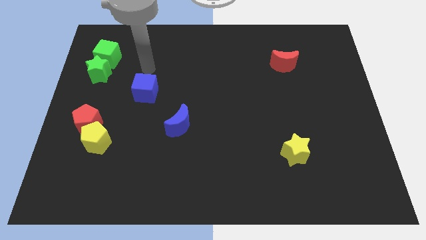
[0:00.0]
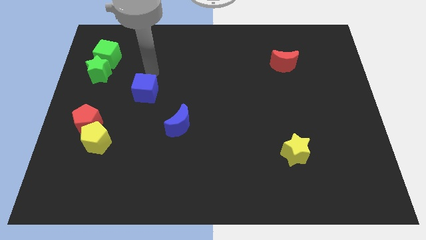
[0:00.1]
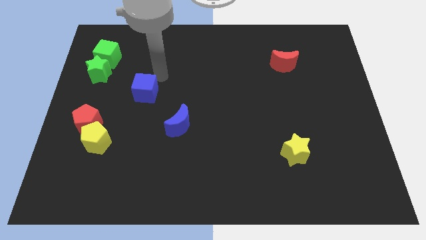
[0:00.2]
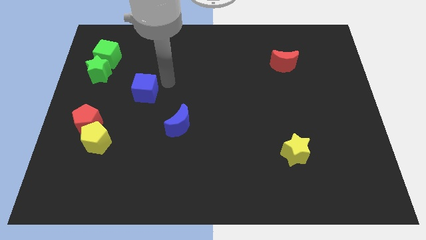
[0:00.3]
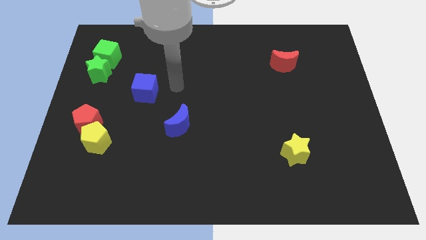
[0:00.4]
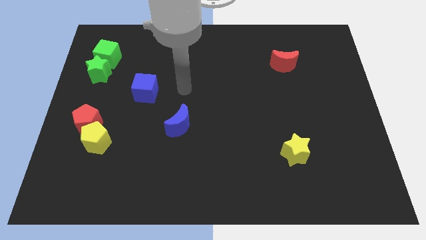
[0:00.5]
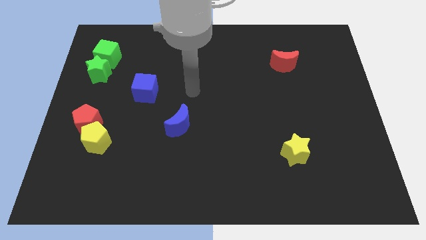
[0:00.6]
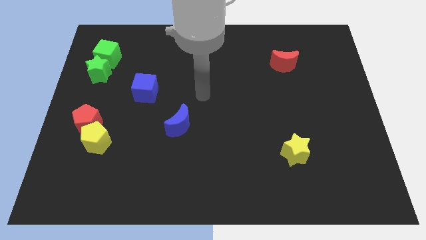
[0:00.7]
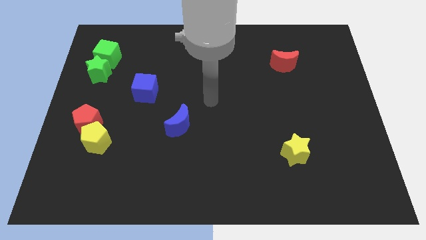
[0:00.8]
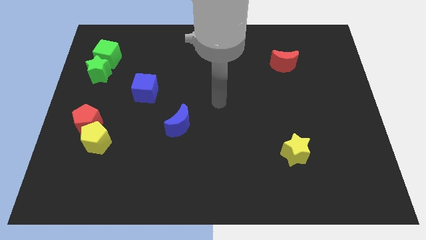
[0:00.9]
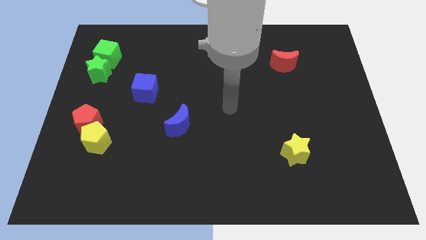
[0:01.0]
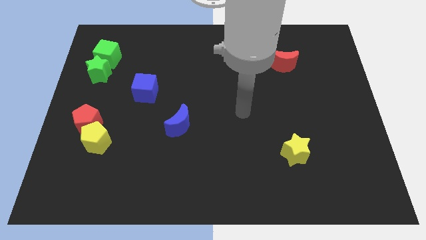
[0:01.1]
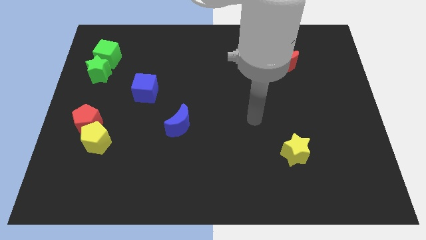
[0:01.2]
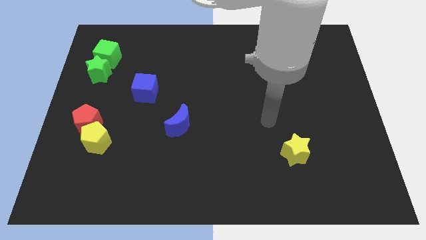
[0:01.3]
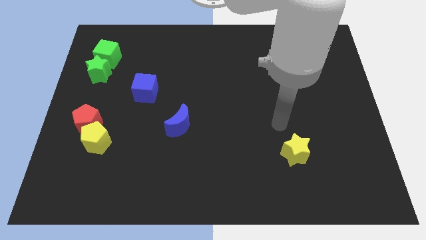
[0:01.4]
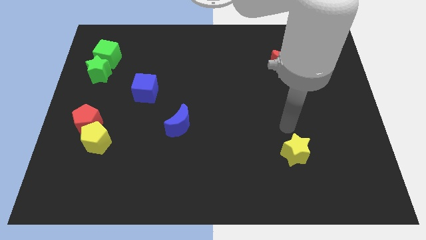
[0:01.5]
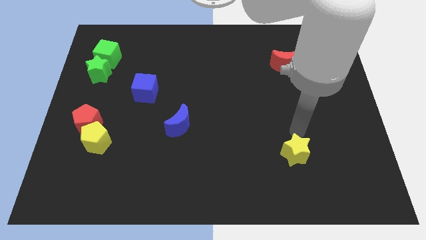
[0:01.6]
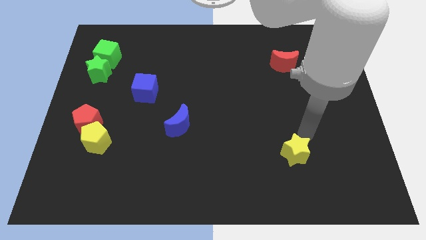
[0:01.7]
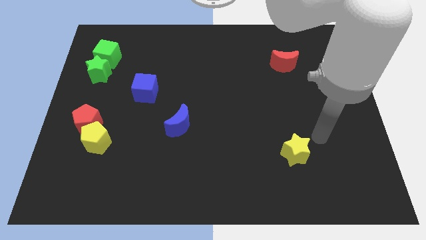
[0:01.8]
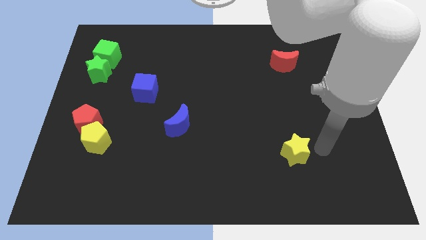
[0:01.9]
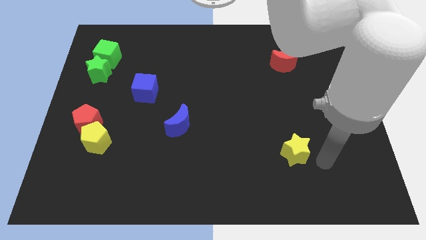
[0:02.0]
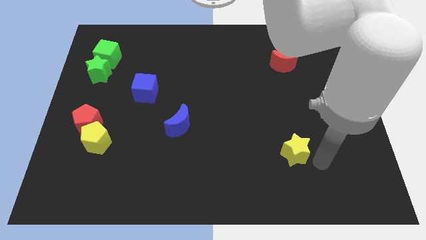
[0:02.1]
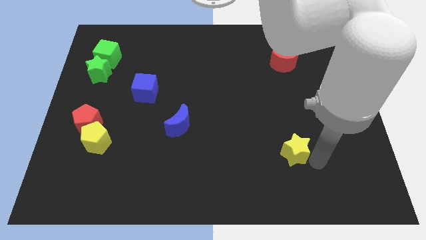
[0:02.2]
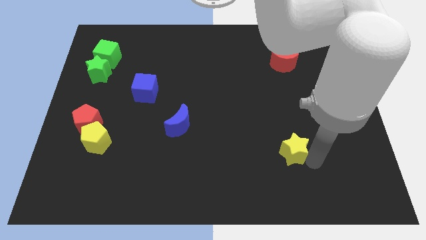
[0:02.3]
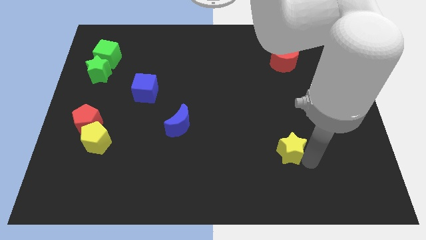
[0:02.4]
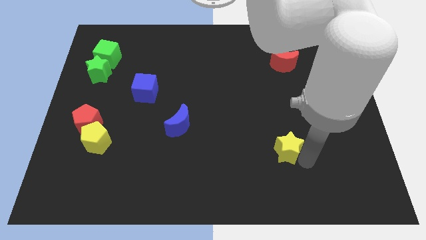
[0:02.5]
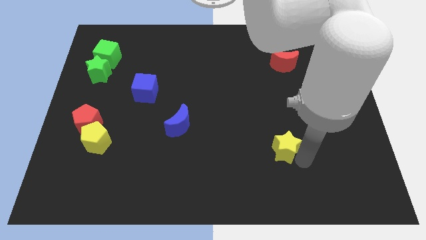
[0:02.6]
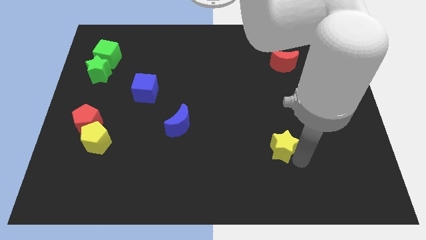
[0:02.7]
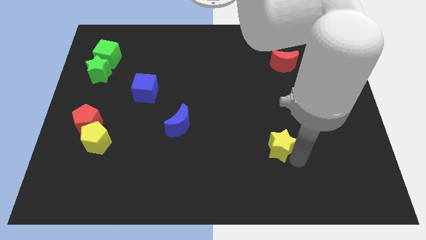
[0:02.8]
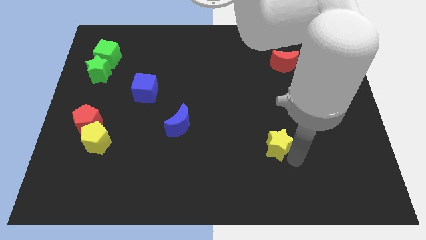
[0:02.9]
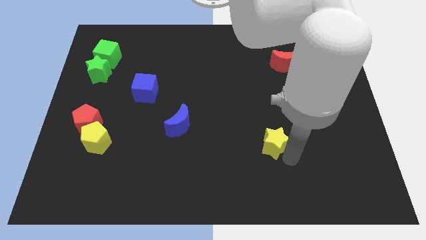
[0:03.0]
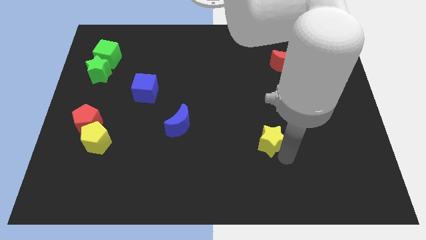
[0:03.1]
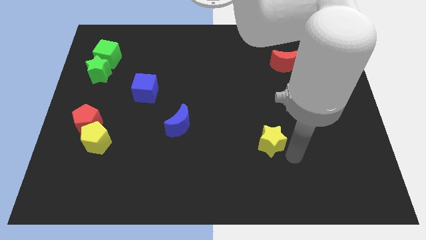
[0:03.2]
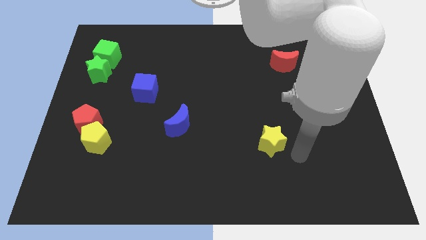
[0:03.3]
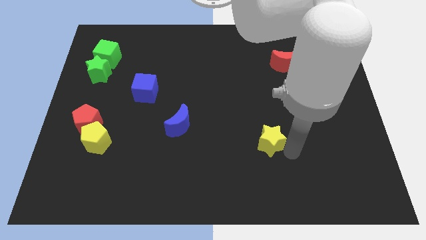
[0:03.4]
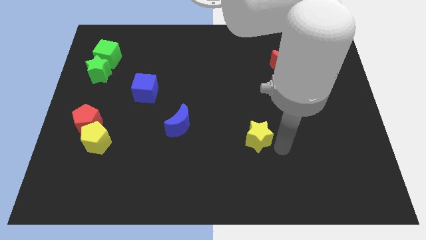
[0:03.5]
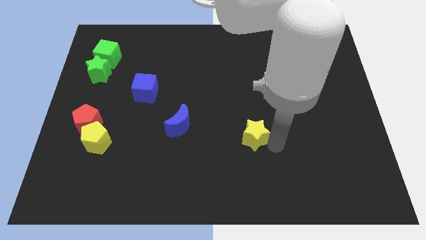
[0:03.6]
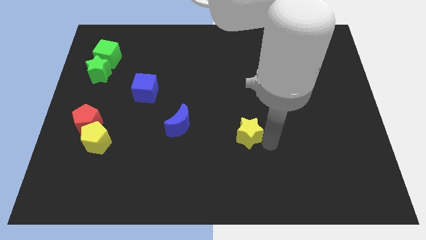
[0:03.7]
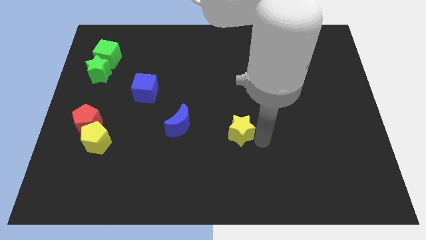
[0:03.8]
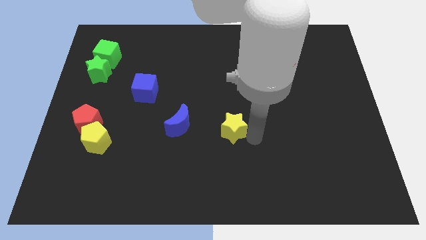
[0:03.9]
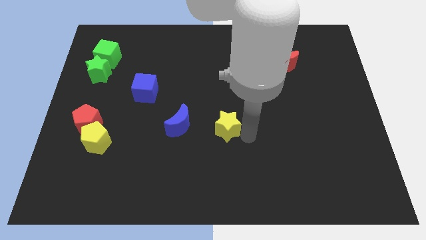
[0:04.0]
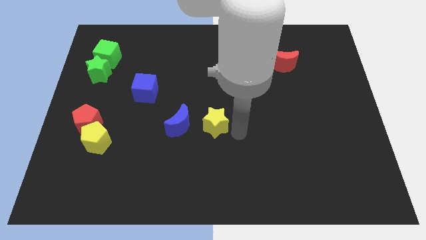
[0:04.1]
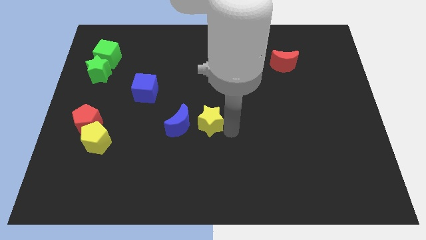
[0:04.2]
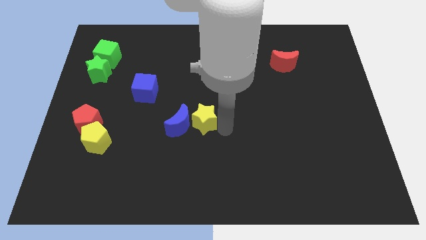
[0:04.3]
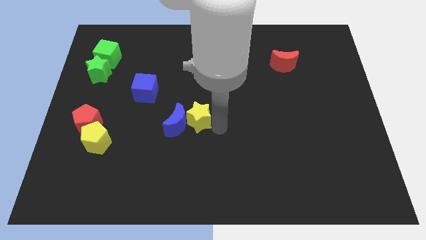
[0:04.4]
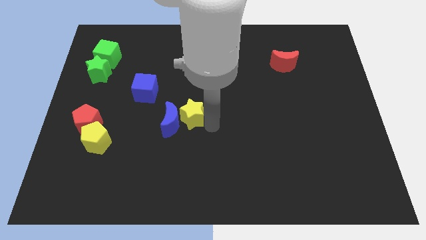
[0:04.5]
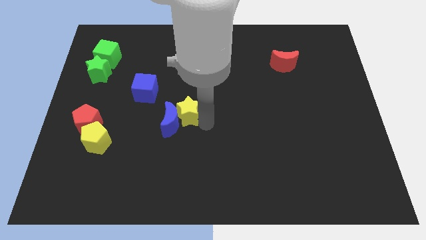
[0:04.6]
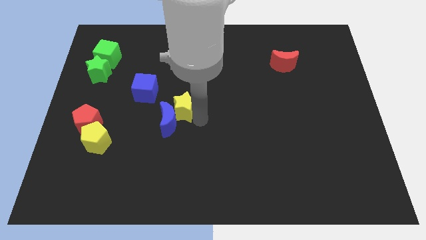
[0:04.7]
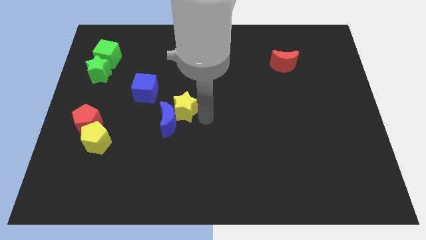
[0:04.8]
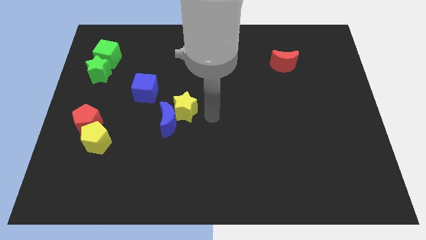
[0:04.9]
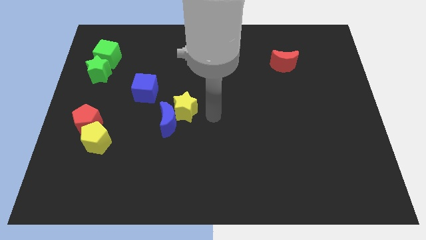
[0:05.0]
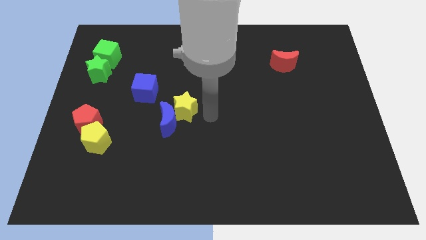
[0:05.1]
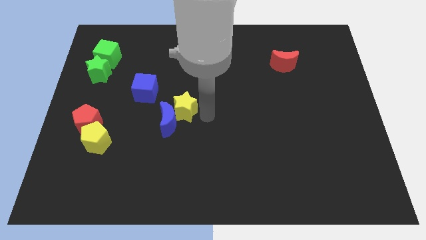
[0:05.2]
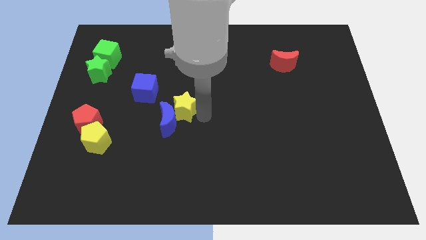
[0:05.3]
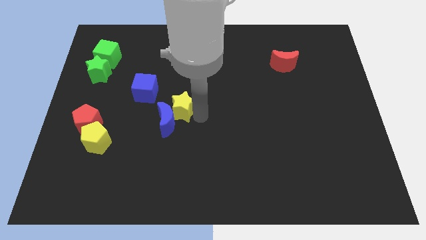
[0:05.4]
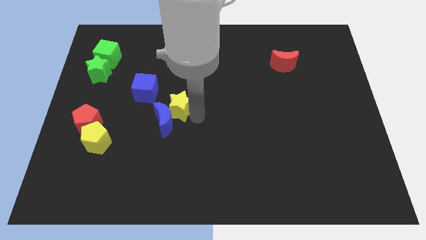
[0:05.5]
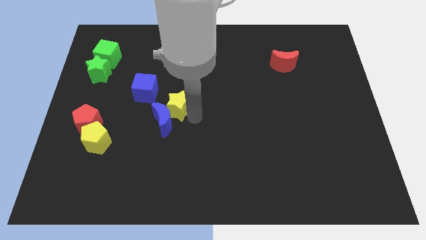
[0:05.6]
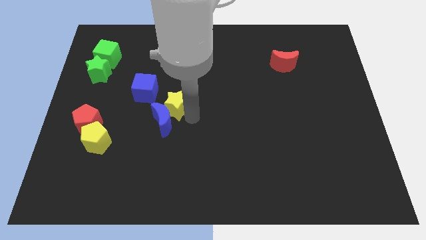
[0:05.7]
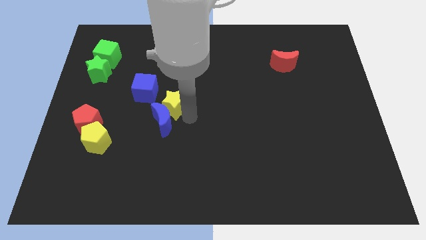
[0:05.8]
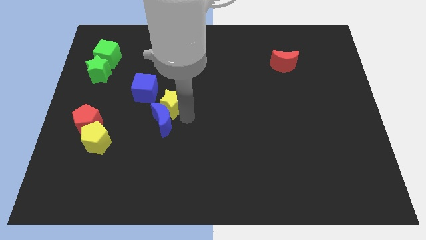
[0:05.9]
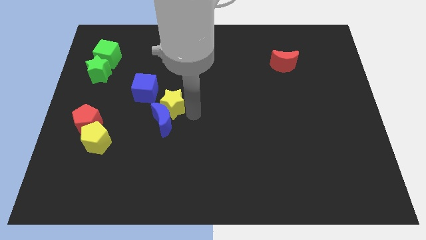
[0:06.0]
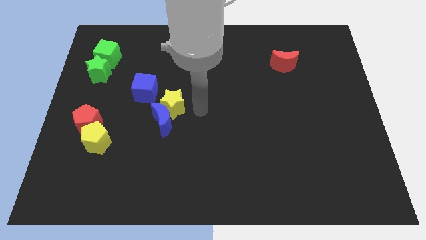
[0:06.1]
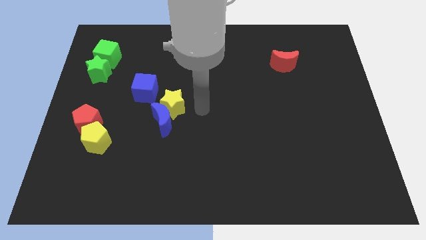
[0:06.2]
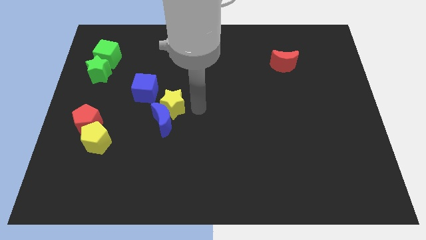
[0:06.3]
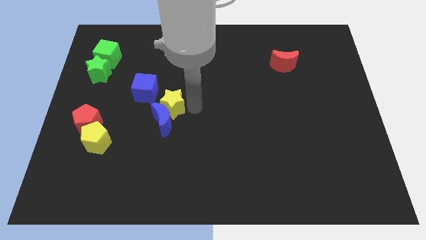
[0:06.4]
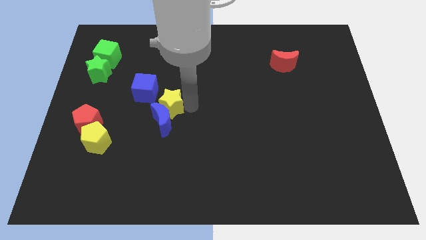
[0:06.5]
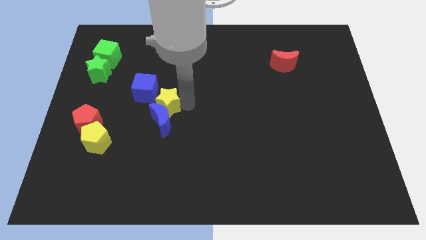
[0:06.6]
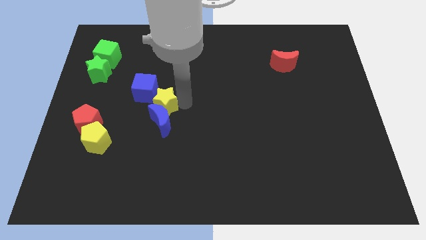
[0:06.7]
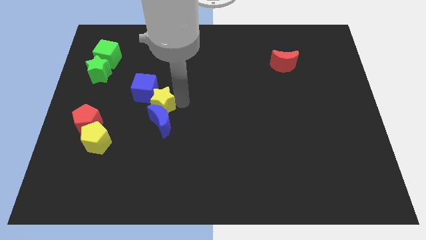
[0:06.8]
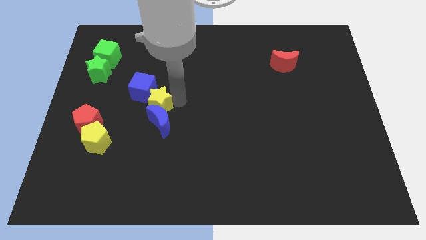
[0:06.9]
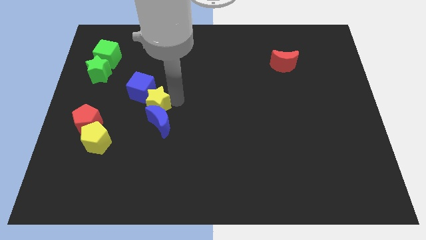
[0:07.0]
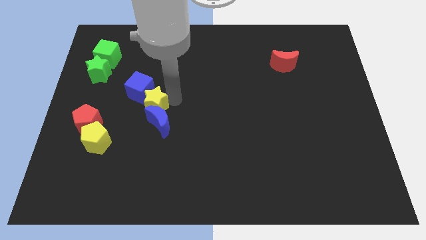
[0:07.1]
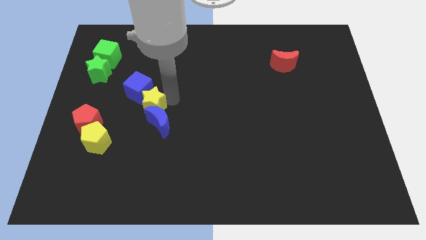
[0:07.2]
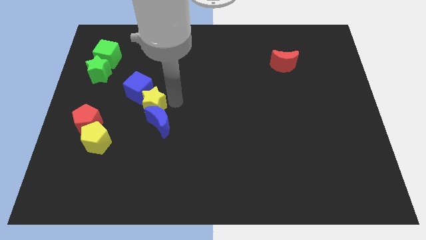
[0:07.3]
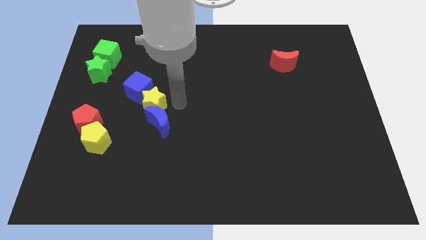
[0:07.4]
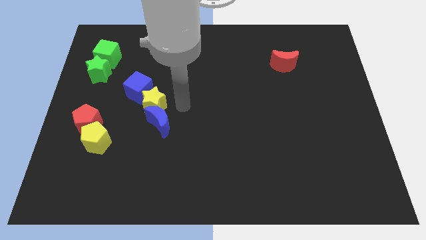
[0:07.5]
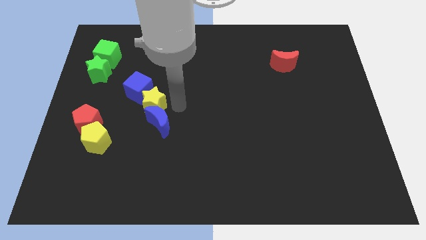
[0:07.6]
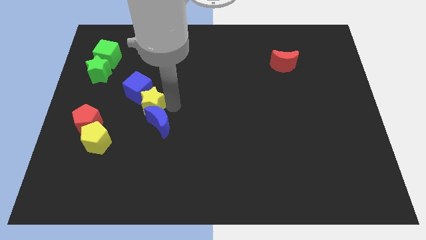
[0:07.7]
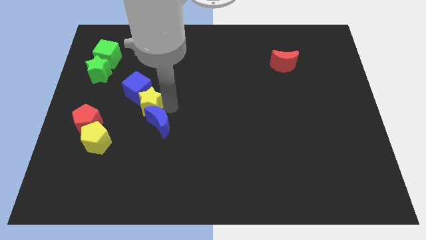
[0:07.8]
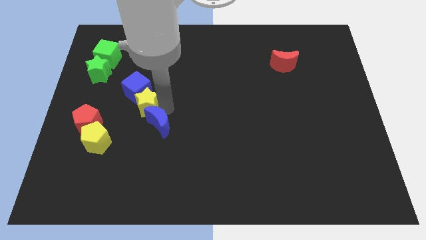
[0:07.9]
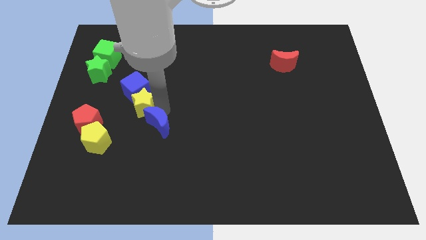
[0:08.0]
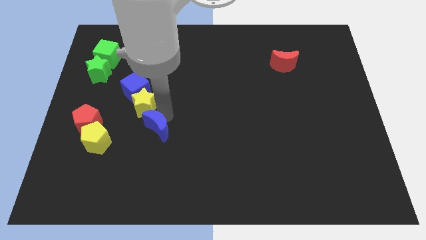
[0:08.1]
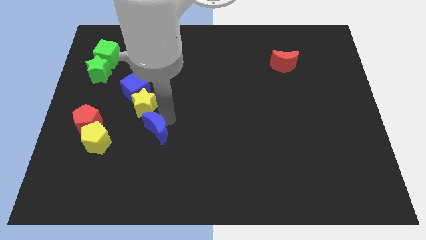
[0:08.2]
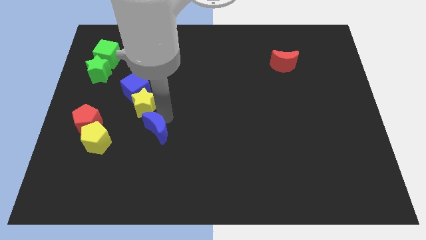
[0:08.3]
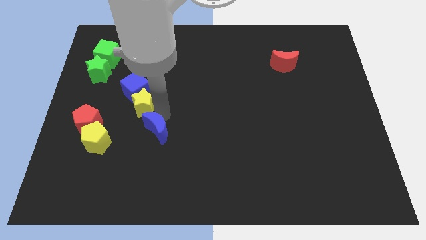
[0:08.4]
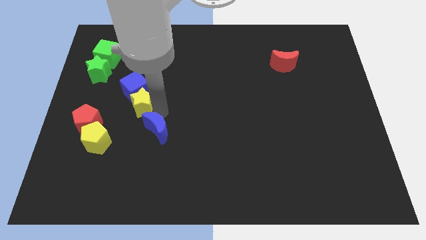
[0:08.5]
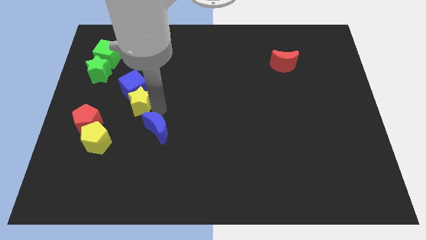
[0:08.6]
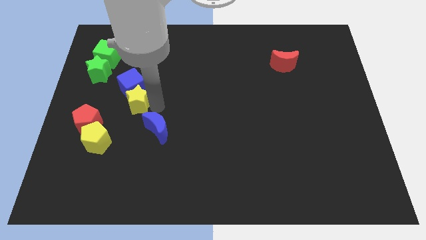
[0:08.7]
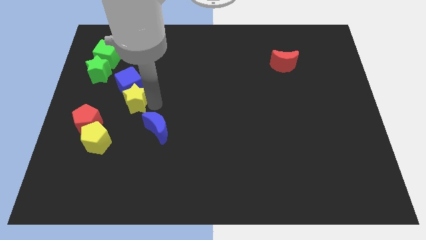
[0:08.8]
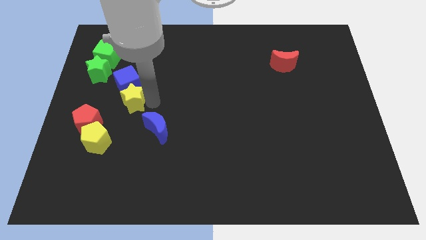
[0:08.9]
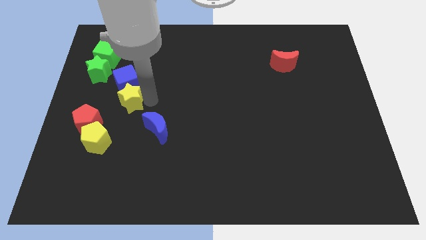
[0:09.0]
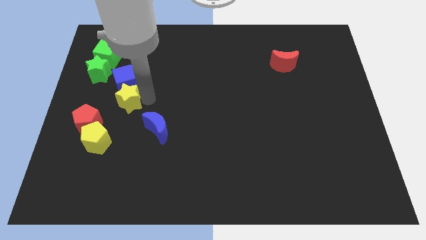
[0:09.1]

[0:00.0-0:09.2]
put the yellow star diagonally down and to the right of the green star
